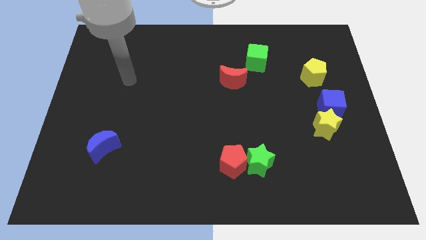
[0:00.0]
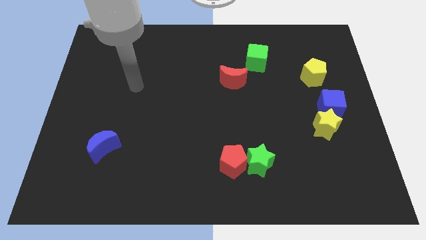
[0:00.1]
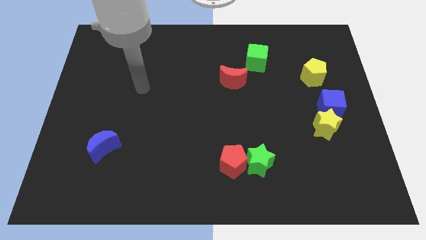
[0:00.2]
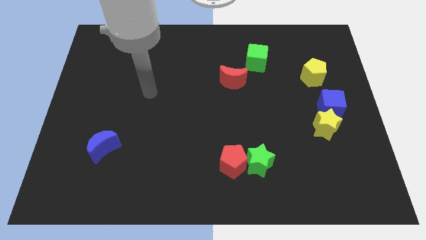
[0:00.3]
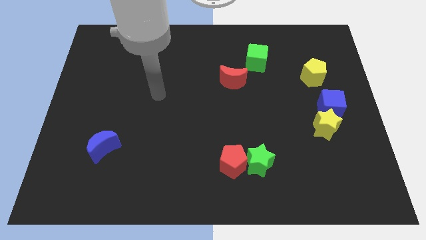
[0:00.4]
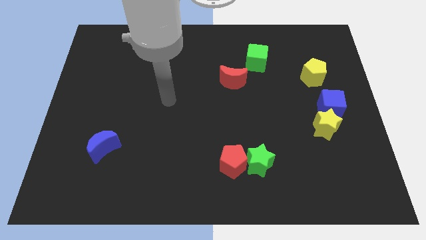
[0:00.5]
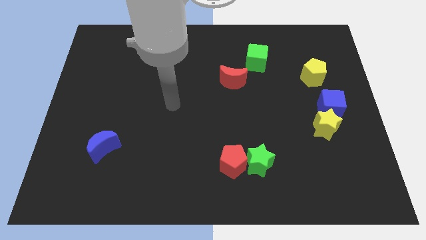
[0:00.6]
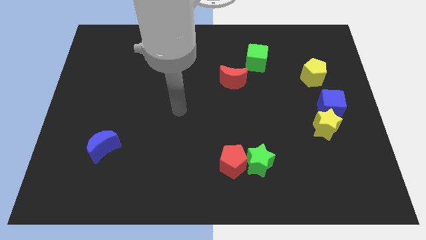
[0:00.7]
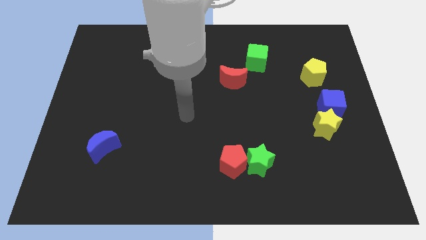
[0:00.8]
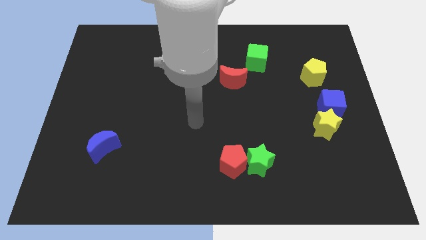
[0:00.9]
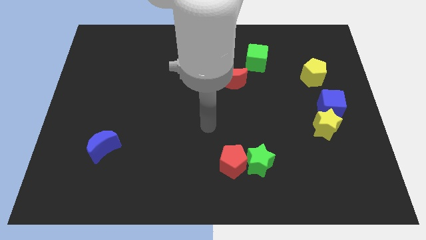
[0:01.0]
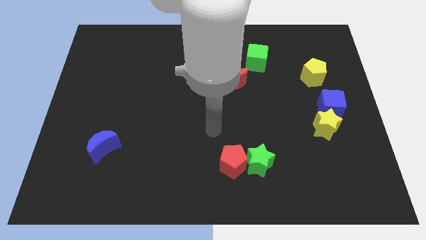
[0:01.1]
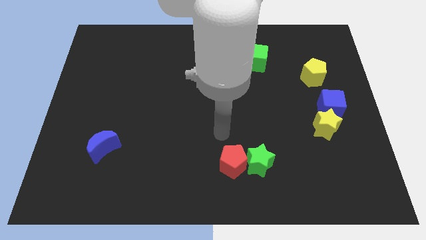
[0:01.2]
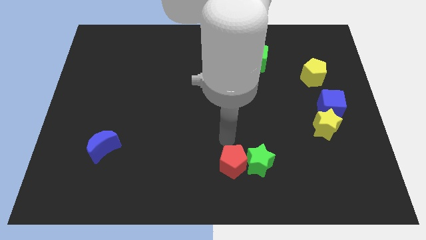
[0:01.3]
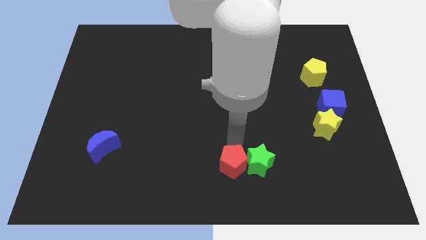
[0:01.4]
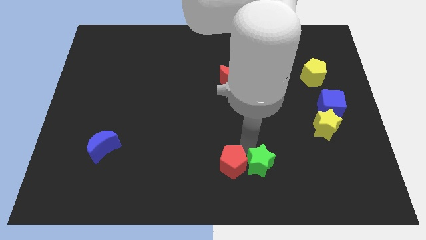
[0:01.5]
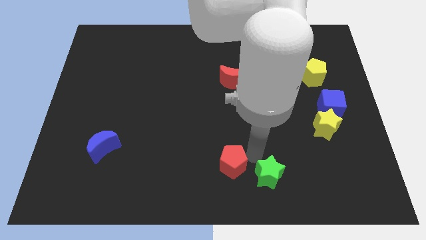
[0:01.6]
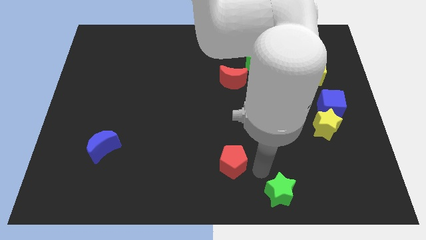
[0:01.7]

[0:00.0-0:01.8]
separate the red pentagon from the green star

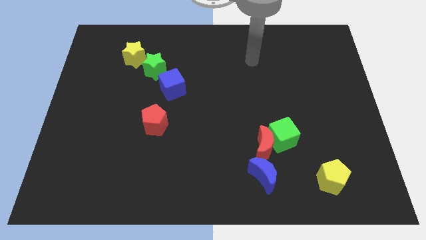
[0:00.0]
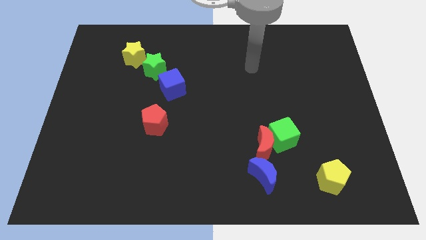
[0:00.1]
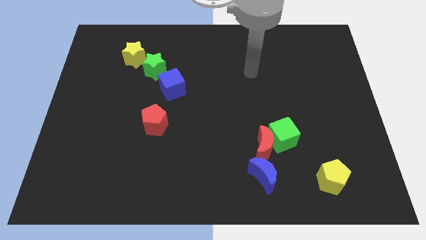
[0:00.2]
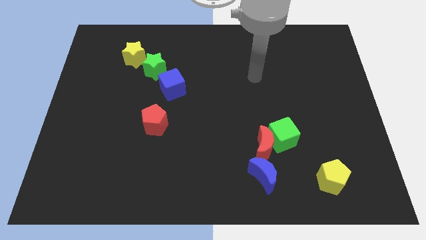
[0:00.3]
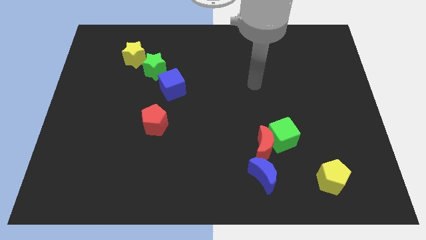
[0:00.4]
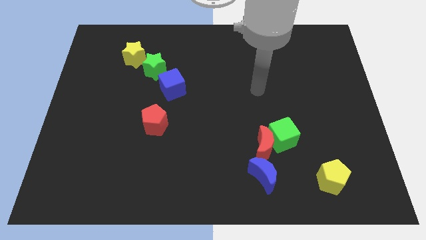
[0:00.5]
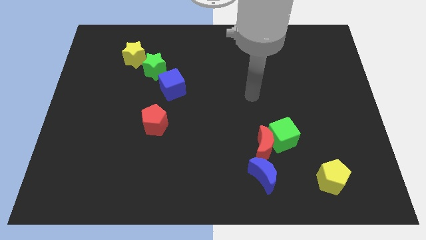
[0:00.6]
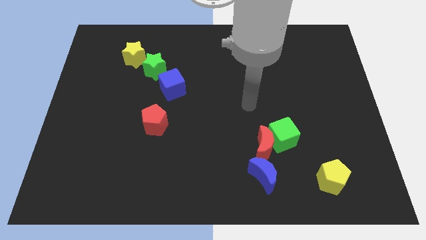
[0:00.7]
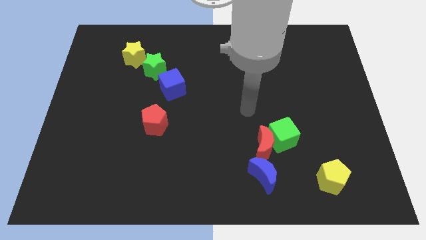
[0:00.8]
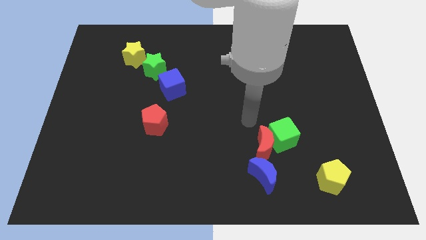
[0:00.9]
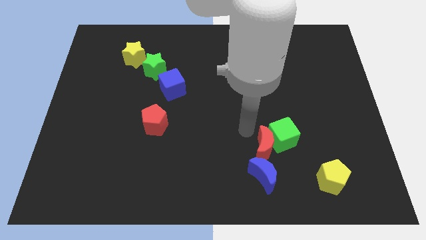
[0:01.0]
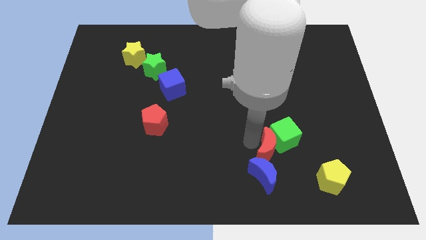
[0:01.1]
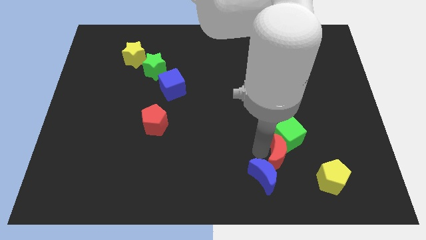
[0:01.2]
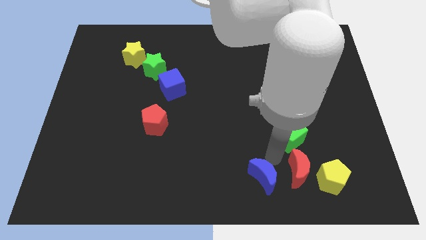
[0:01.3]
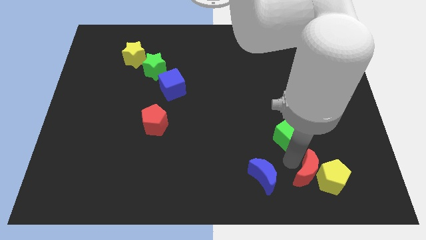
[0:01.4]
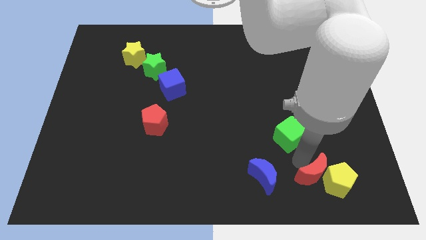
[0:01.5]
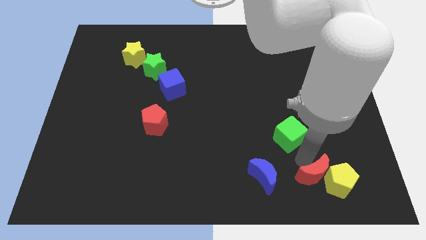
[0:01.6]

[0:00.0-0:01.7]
pull the green cube apart from the red moon

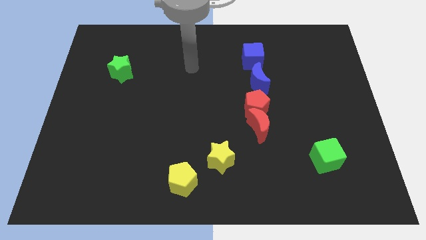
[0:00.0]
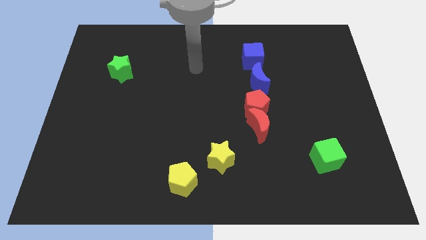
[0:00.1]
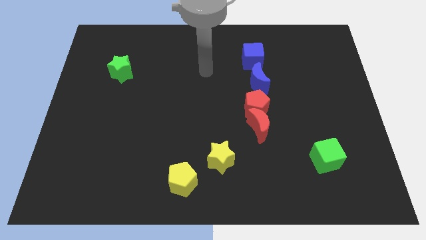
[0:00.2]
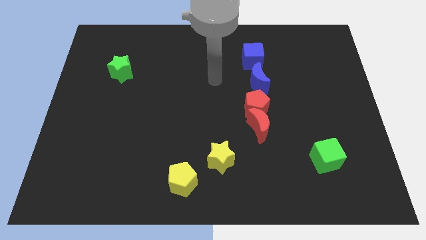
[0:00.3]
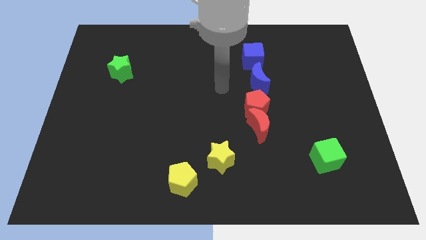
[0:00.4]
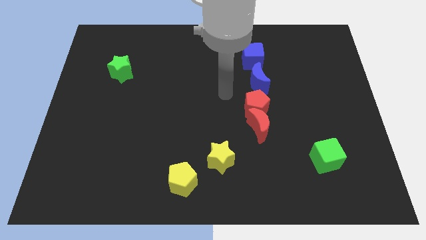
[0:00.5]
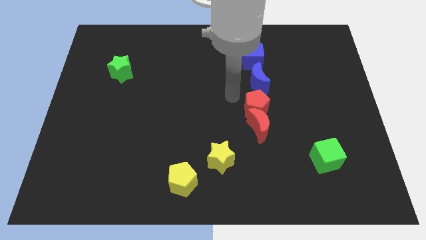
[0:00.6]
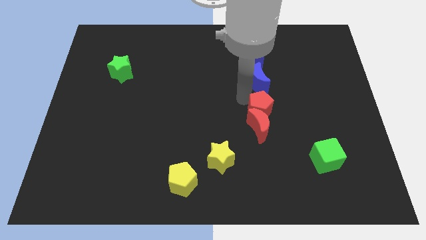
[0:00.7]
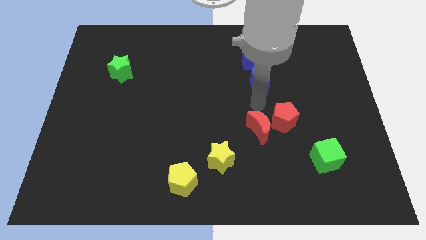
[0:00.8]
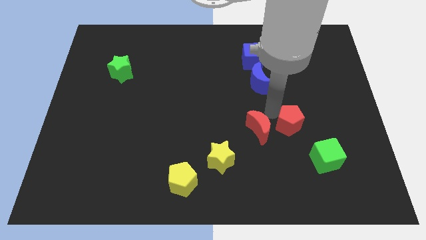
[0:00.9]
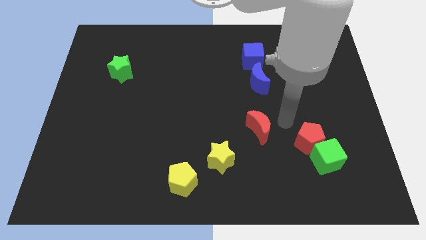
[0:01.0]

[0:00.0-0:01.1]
pull the red moon apart from the red pentagon

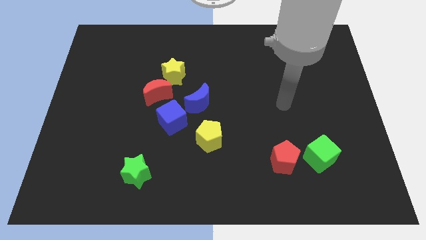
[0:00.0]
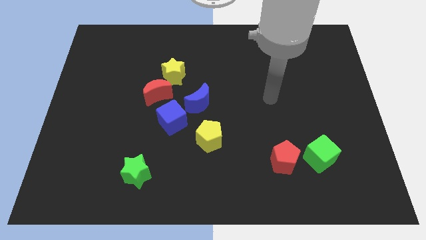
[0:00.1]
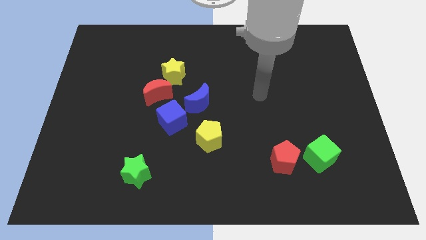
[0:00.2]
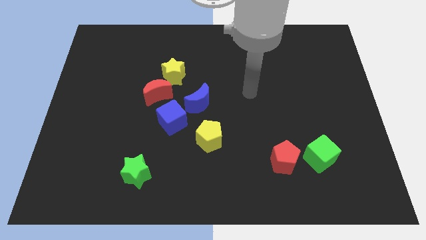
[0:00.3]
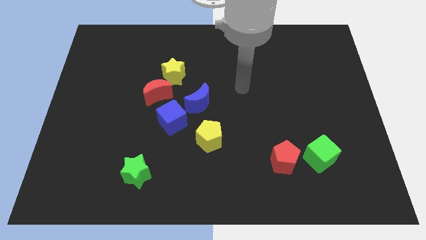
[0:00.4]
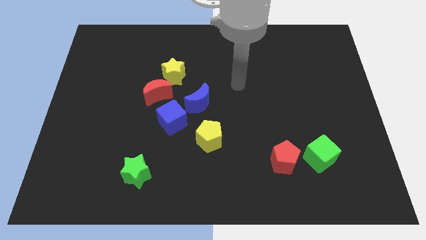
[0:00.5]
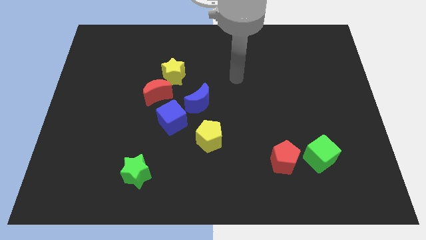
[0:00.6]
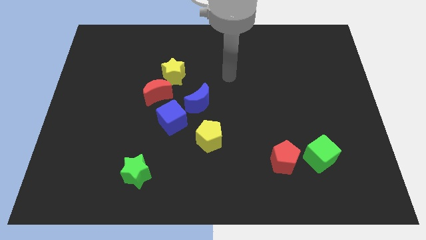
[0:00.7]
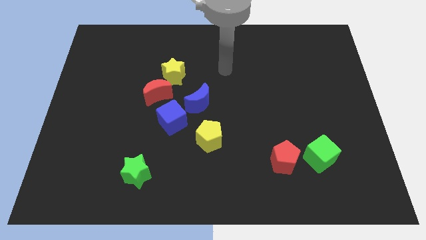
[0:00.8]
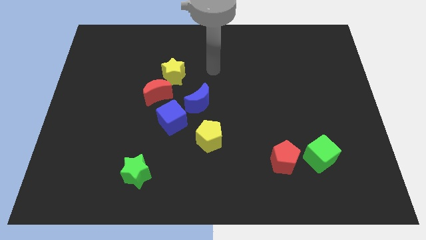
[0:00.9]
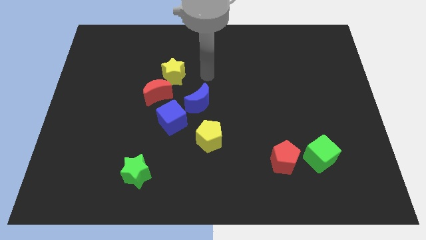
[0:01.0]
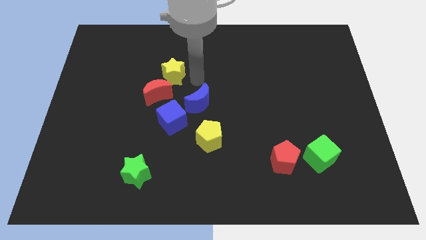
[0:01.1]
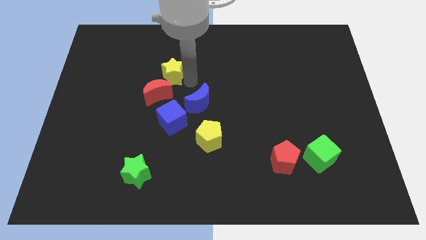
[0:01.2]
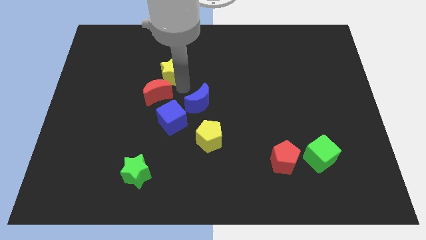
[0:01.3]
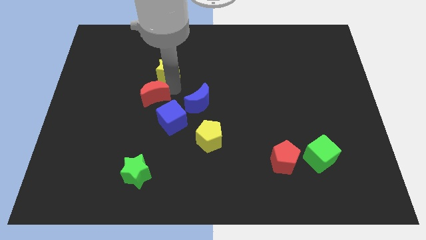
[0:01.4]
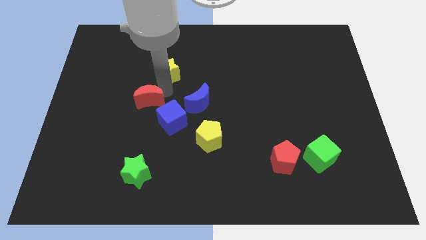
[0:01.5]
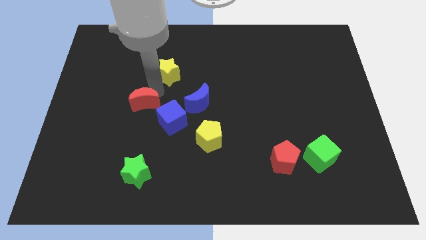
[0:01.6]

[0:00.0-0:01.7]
pull the yellow star apart from the red moon

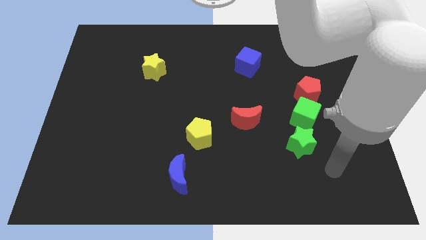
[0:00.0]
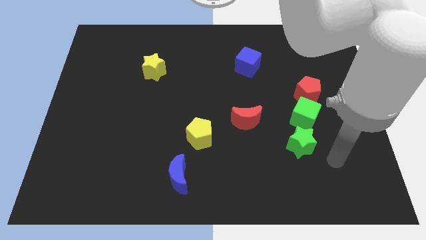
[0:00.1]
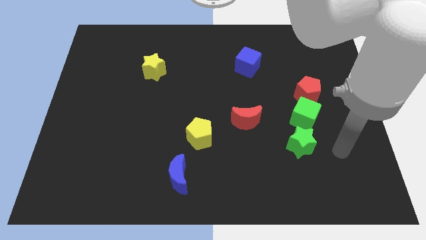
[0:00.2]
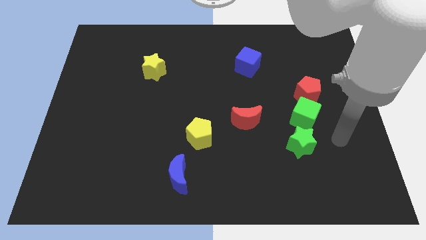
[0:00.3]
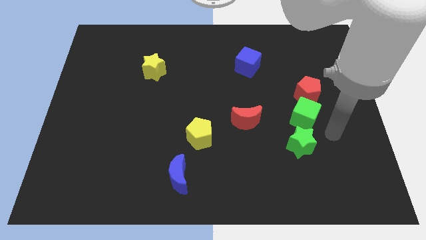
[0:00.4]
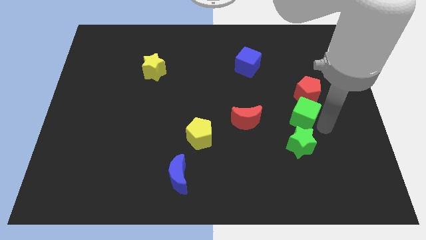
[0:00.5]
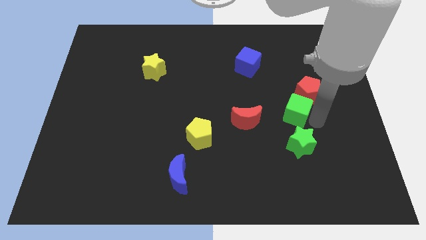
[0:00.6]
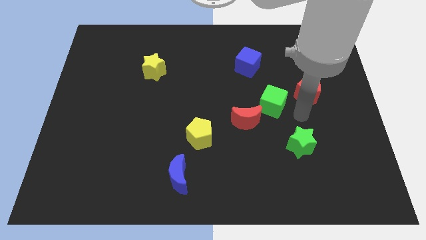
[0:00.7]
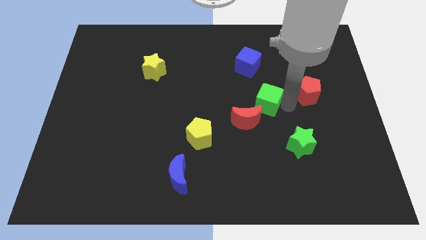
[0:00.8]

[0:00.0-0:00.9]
move the red pentagon away from the green cube

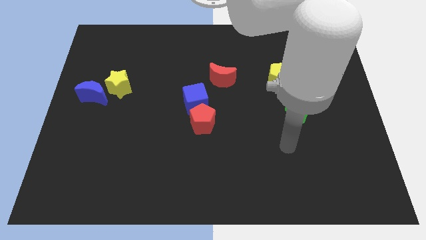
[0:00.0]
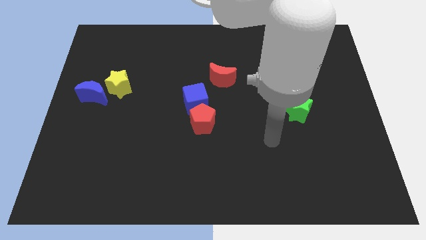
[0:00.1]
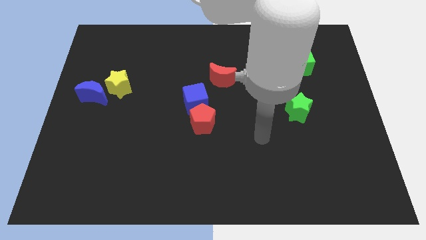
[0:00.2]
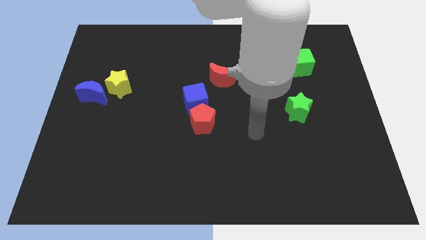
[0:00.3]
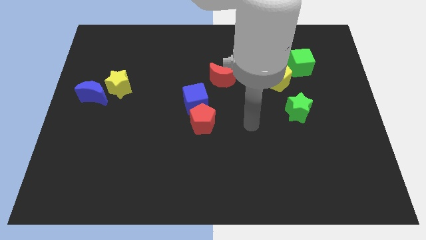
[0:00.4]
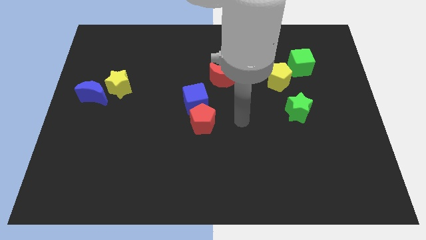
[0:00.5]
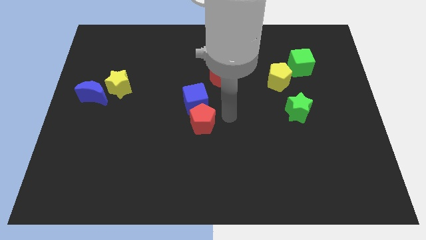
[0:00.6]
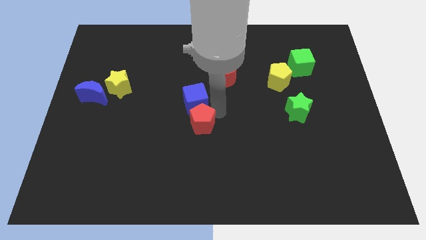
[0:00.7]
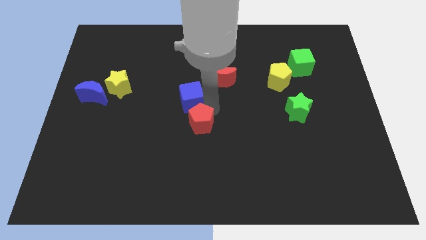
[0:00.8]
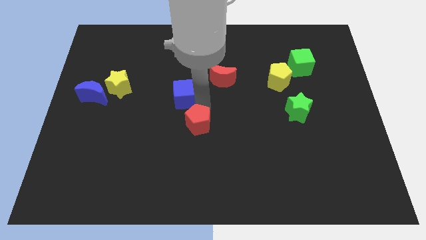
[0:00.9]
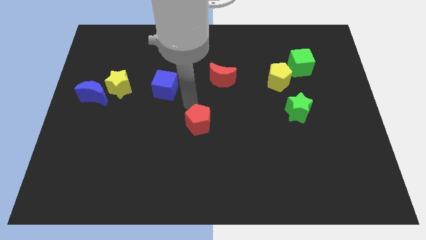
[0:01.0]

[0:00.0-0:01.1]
separate the red pentagon from the blue cube

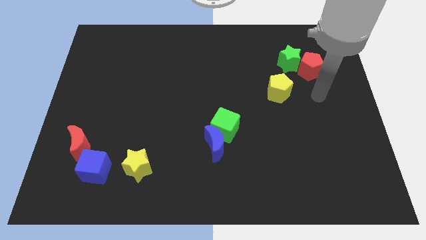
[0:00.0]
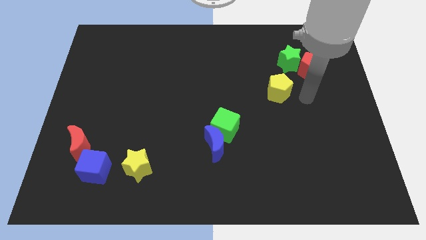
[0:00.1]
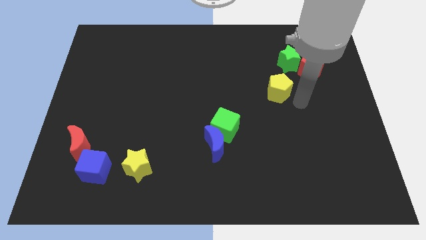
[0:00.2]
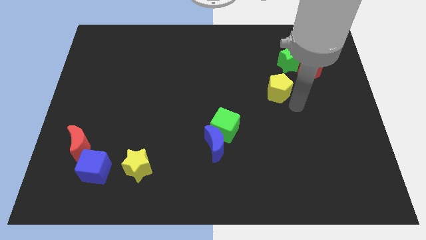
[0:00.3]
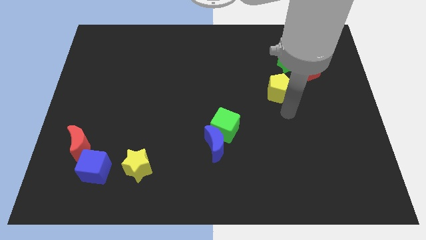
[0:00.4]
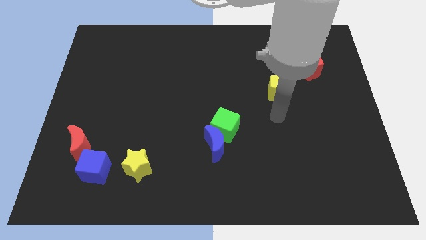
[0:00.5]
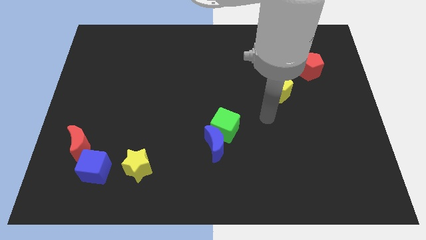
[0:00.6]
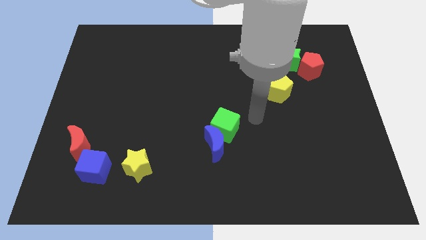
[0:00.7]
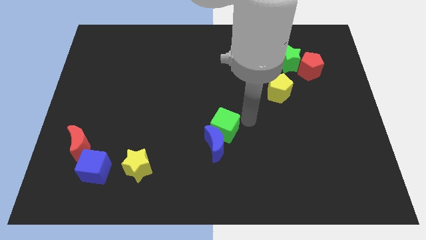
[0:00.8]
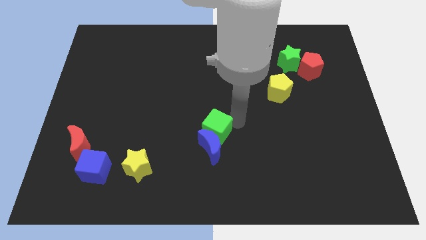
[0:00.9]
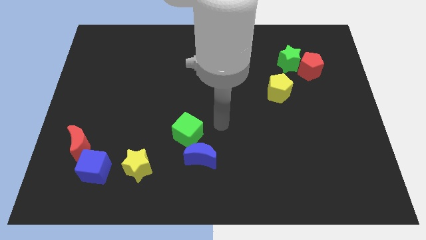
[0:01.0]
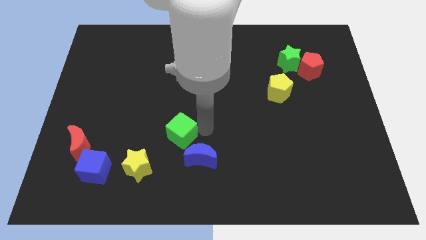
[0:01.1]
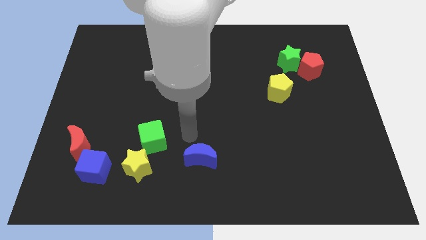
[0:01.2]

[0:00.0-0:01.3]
separate the blue moon from the green cube
